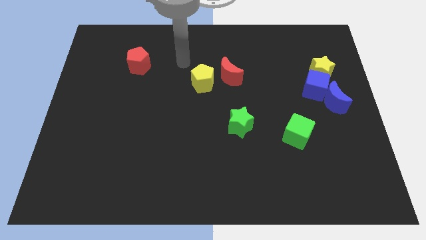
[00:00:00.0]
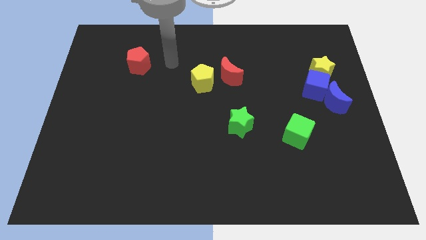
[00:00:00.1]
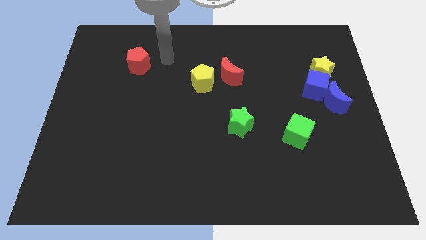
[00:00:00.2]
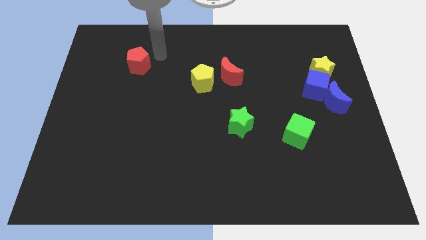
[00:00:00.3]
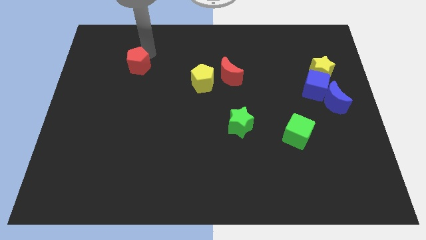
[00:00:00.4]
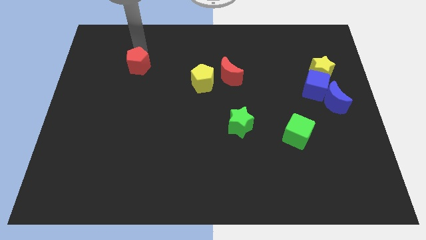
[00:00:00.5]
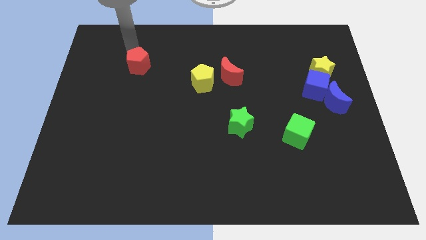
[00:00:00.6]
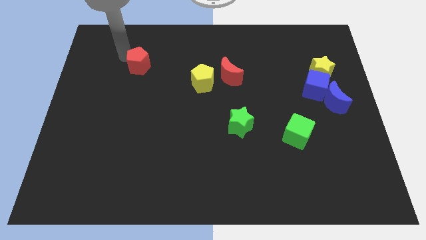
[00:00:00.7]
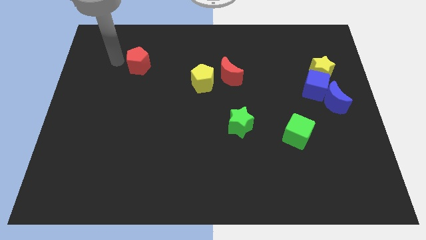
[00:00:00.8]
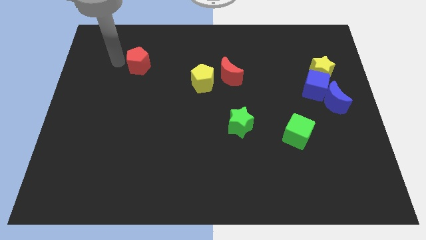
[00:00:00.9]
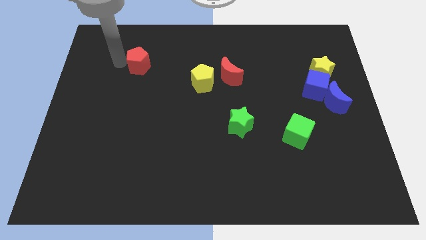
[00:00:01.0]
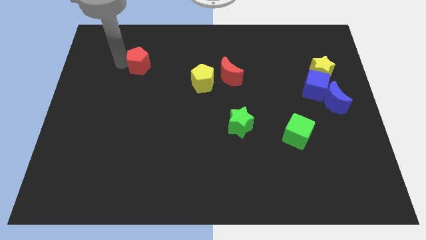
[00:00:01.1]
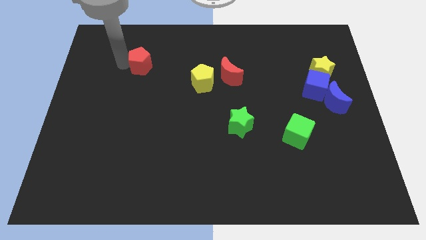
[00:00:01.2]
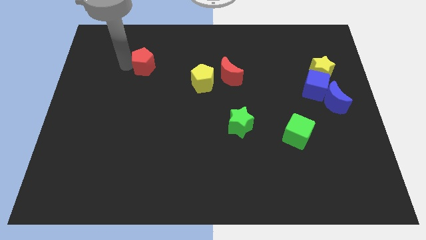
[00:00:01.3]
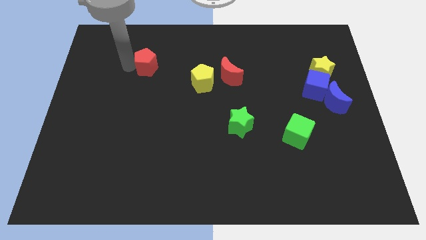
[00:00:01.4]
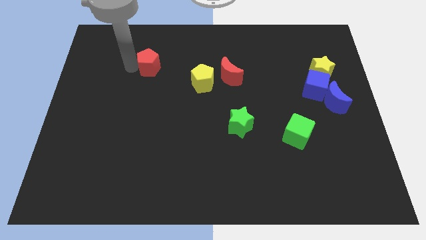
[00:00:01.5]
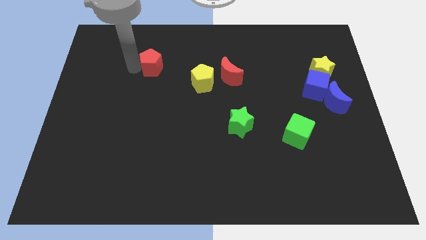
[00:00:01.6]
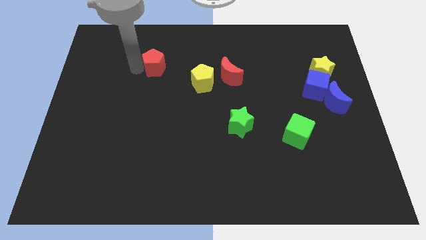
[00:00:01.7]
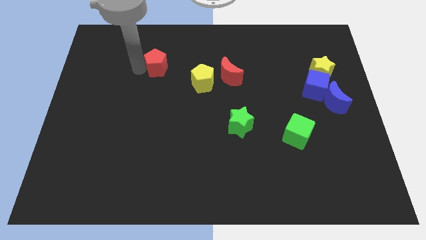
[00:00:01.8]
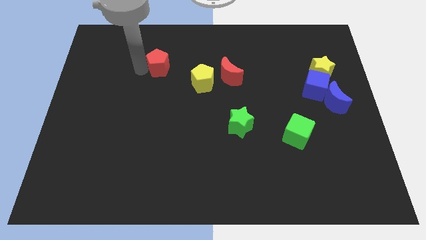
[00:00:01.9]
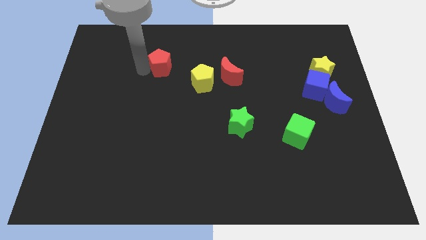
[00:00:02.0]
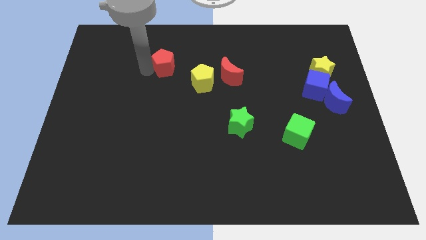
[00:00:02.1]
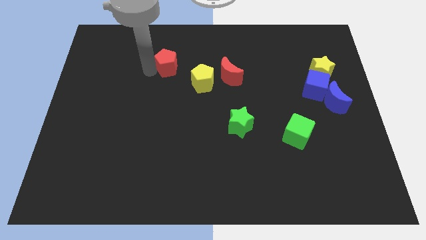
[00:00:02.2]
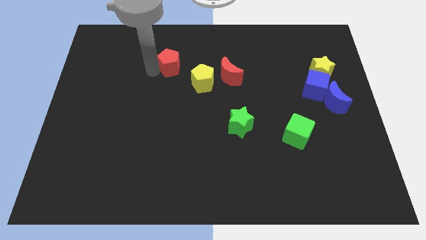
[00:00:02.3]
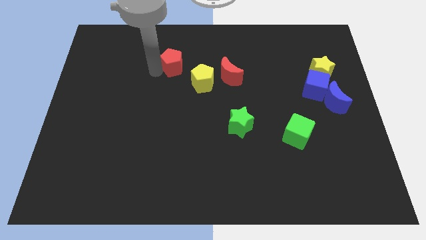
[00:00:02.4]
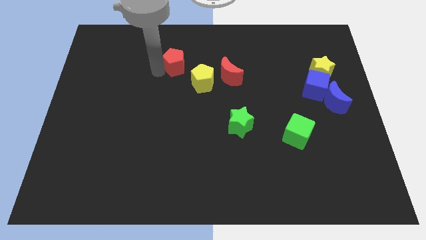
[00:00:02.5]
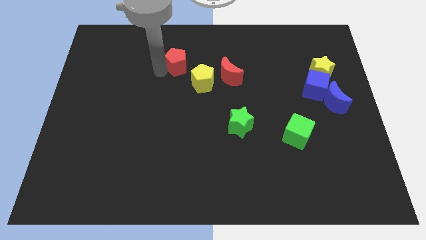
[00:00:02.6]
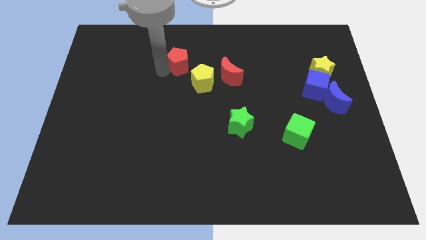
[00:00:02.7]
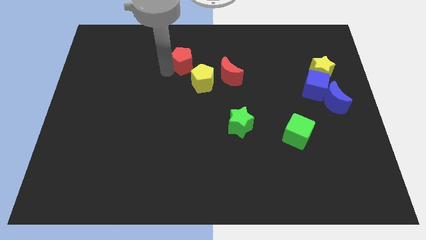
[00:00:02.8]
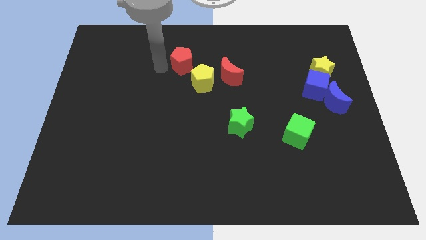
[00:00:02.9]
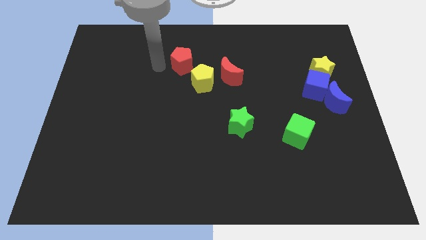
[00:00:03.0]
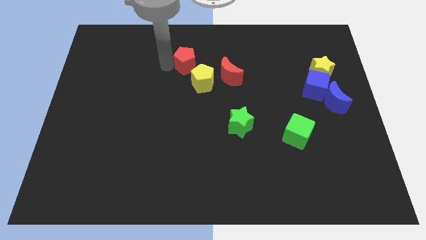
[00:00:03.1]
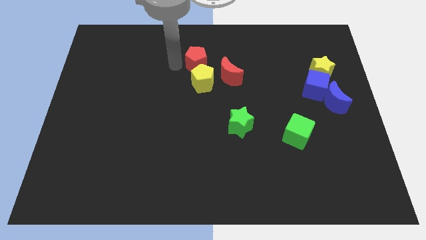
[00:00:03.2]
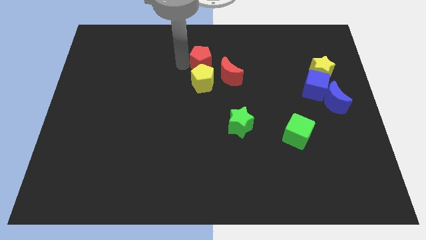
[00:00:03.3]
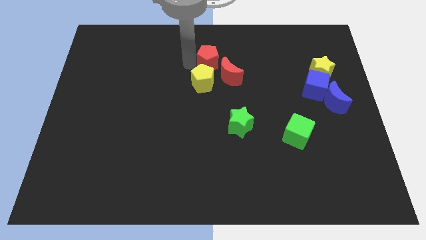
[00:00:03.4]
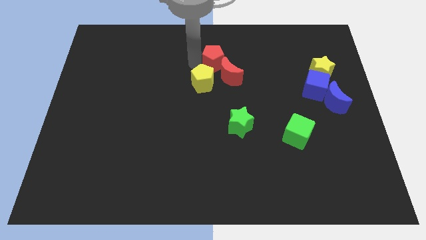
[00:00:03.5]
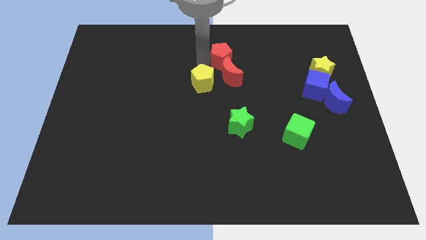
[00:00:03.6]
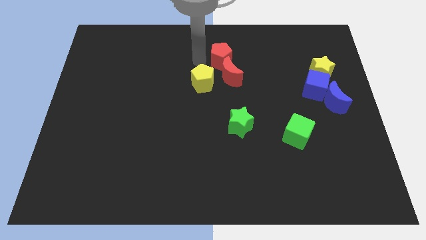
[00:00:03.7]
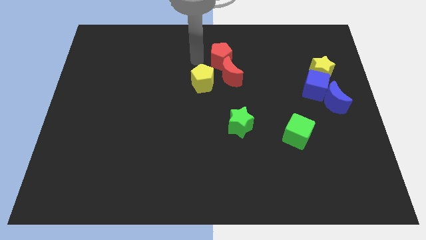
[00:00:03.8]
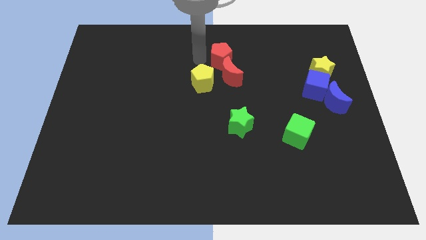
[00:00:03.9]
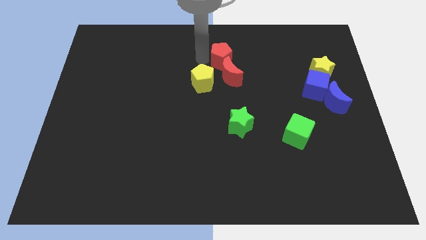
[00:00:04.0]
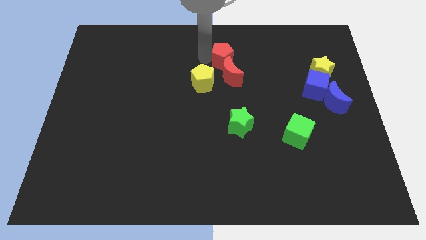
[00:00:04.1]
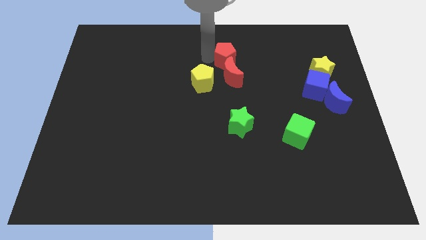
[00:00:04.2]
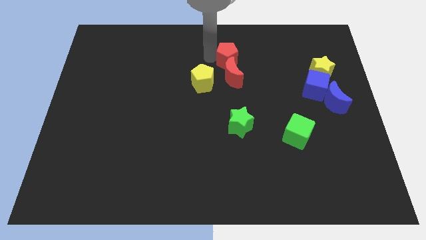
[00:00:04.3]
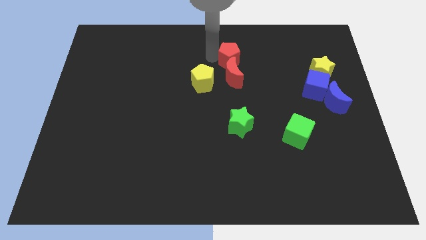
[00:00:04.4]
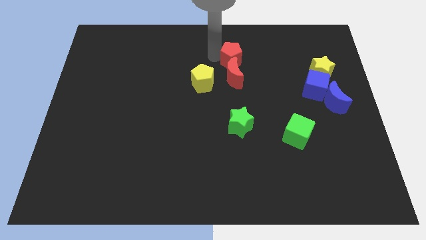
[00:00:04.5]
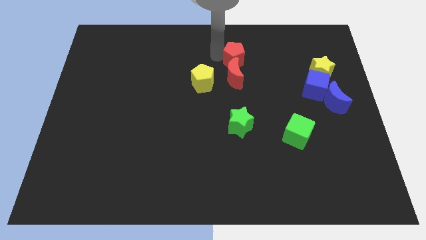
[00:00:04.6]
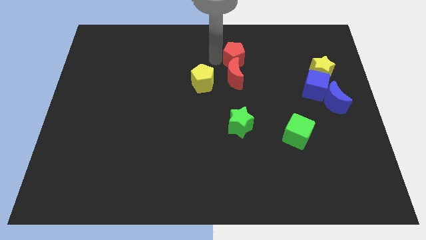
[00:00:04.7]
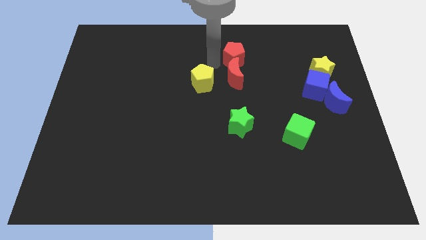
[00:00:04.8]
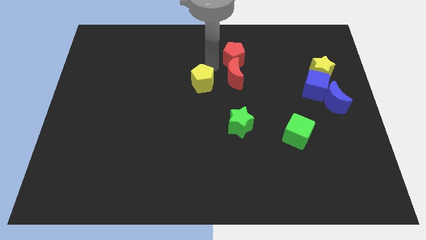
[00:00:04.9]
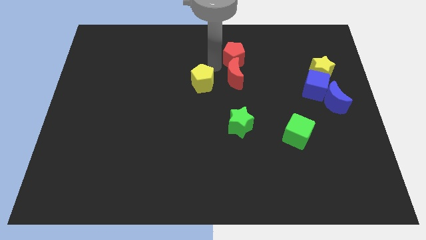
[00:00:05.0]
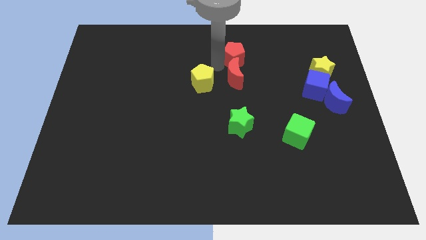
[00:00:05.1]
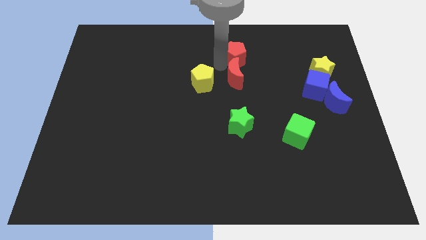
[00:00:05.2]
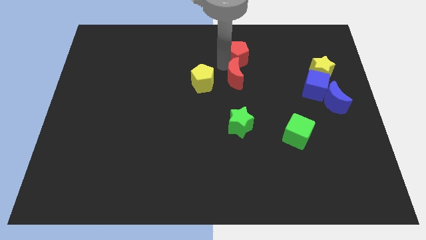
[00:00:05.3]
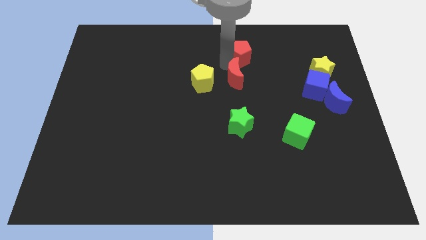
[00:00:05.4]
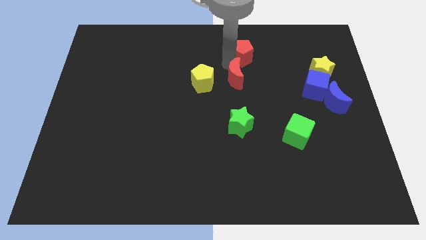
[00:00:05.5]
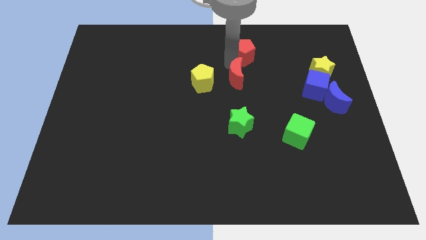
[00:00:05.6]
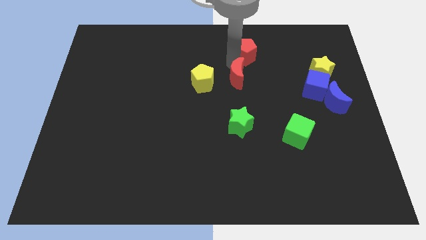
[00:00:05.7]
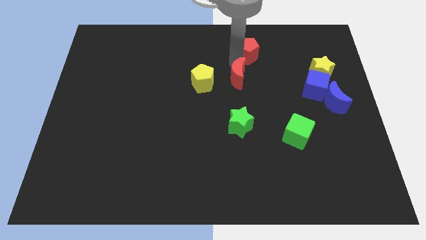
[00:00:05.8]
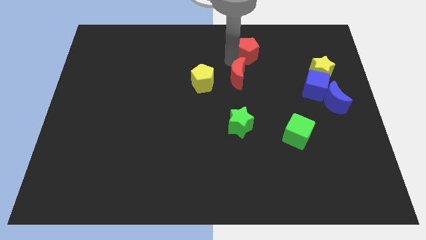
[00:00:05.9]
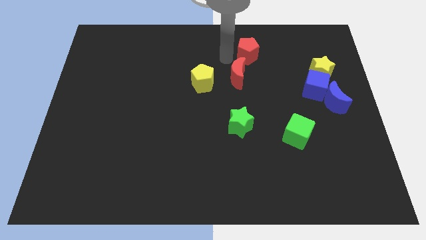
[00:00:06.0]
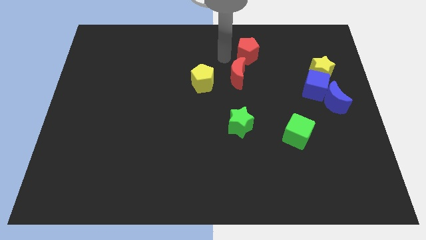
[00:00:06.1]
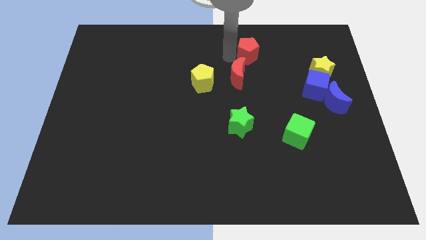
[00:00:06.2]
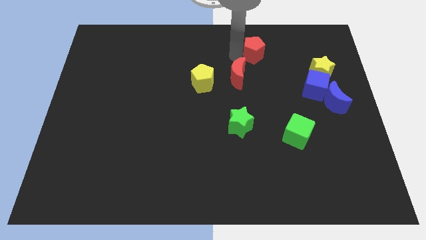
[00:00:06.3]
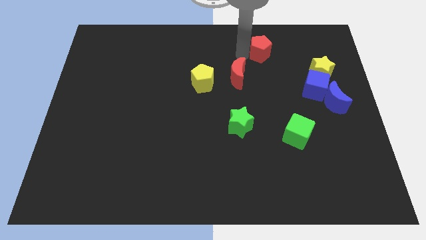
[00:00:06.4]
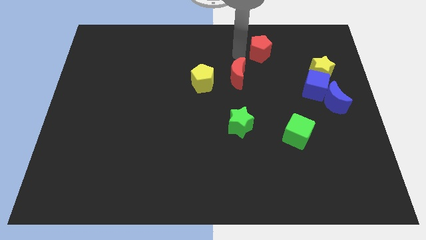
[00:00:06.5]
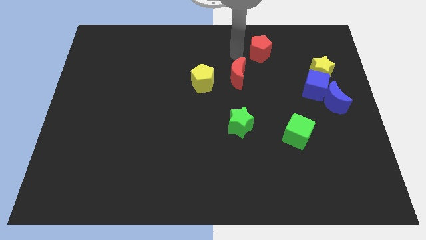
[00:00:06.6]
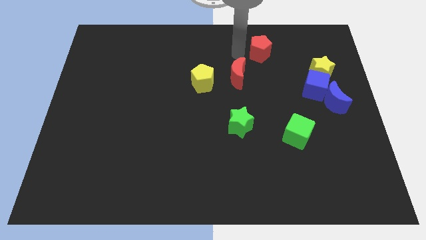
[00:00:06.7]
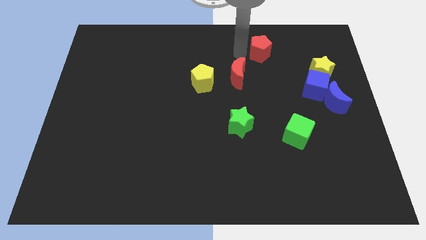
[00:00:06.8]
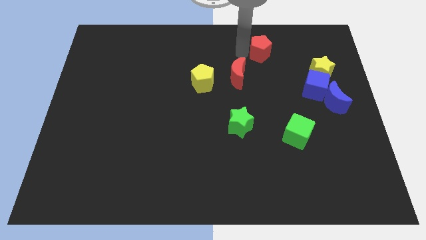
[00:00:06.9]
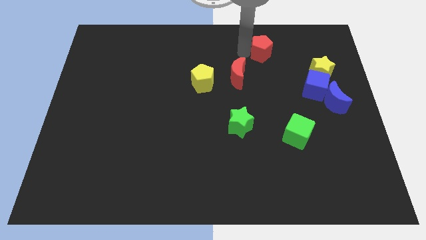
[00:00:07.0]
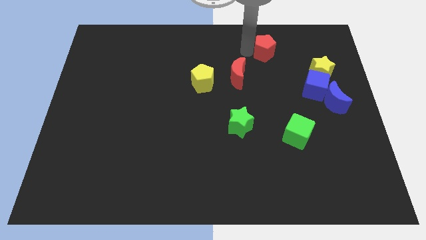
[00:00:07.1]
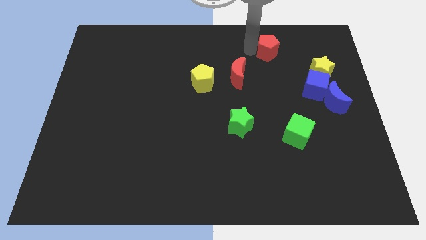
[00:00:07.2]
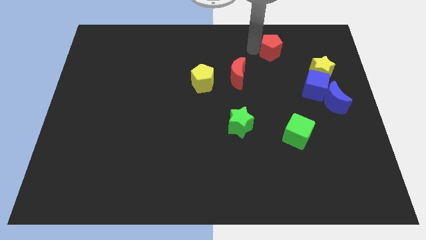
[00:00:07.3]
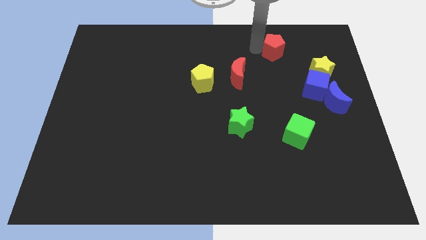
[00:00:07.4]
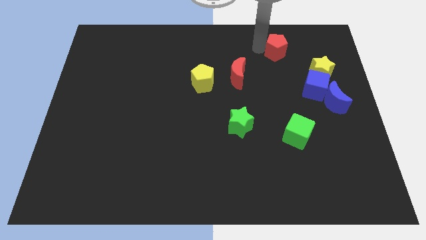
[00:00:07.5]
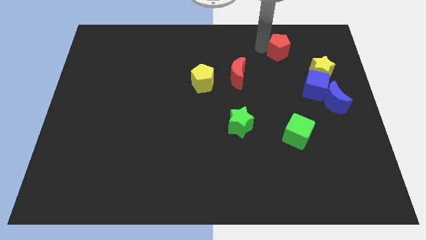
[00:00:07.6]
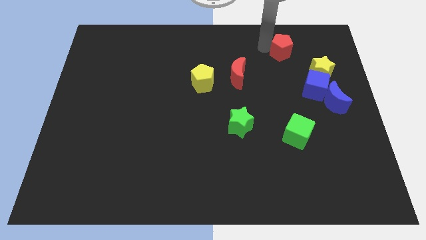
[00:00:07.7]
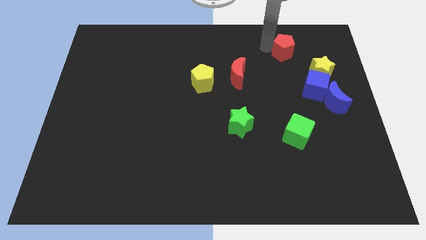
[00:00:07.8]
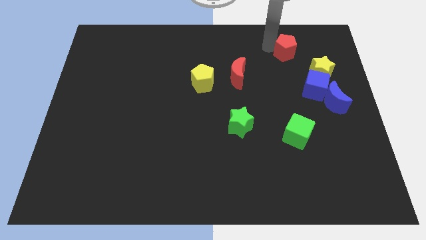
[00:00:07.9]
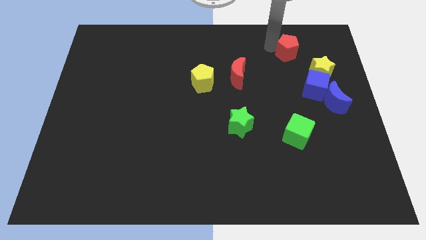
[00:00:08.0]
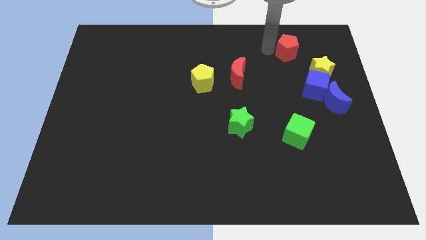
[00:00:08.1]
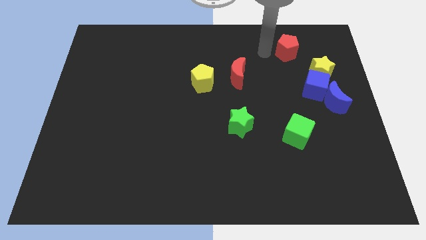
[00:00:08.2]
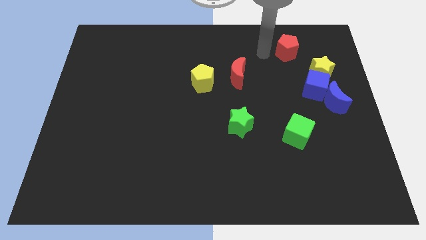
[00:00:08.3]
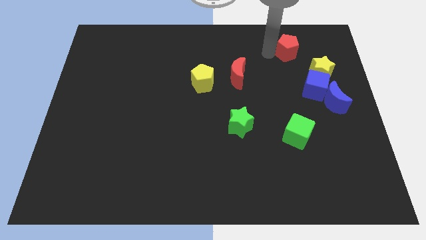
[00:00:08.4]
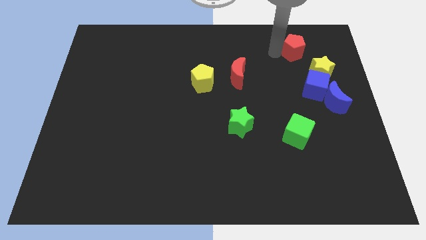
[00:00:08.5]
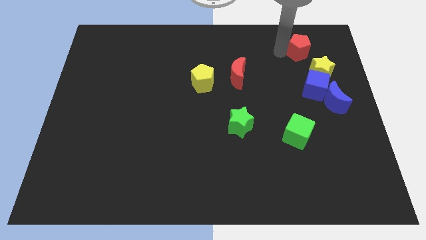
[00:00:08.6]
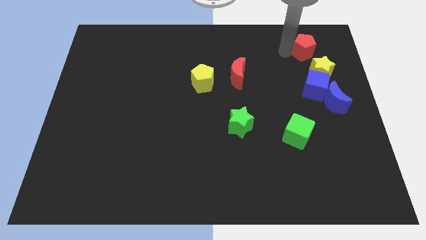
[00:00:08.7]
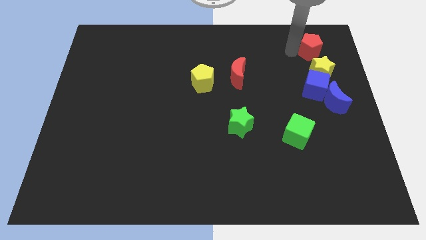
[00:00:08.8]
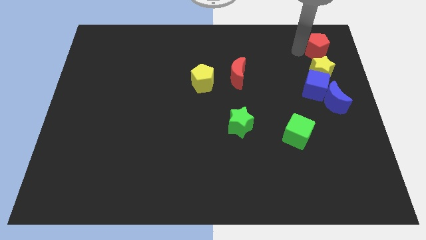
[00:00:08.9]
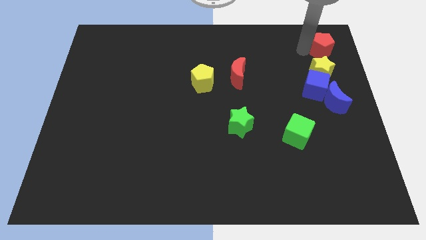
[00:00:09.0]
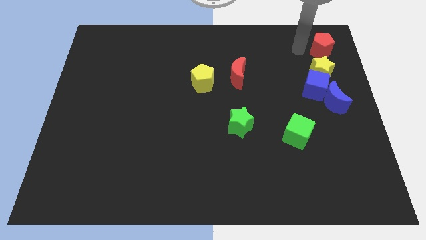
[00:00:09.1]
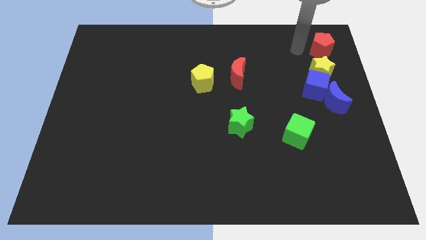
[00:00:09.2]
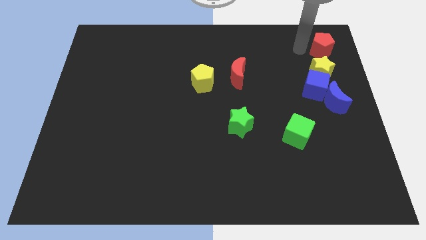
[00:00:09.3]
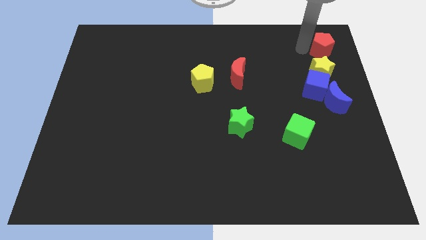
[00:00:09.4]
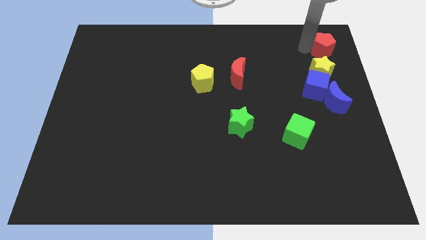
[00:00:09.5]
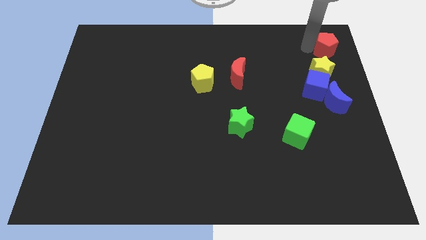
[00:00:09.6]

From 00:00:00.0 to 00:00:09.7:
move the red pentagon to the top right of the board
